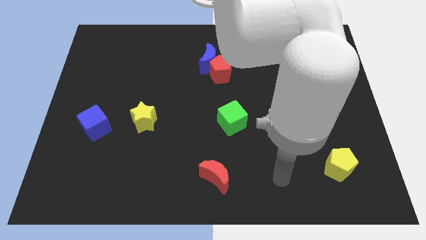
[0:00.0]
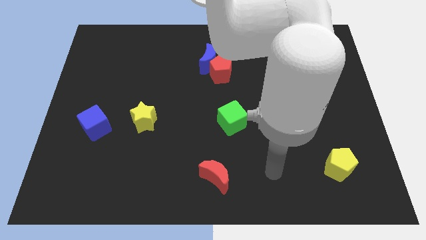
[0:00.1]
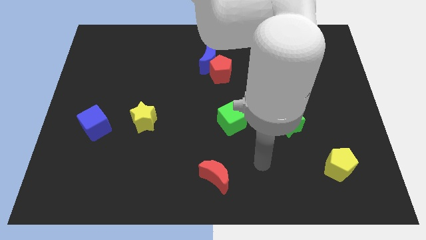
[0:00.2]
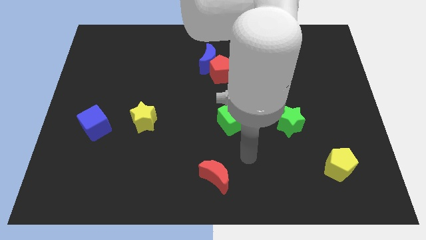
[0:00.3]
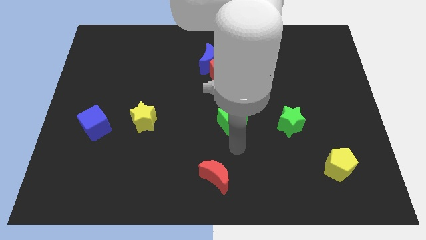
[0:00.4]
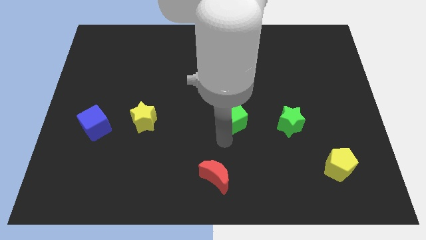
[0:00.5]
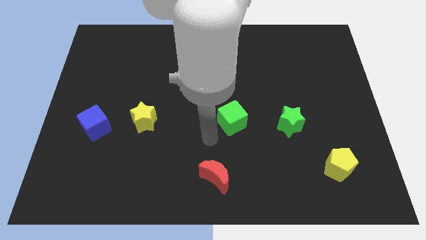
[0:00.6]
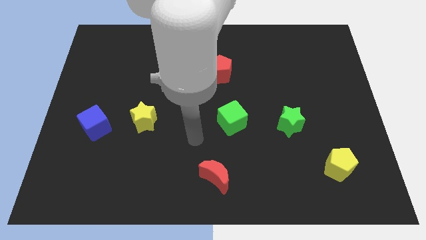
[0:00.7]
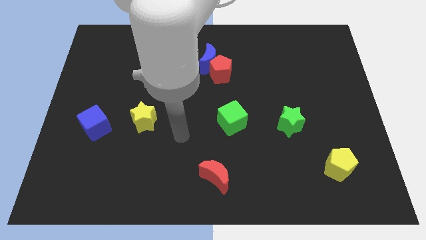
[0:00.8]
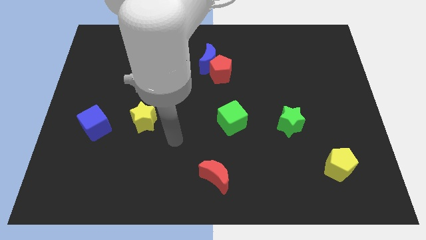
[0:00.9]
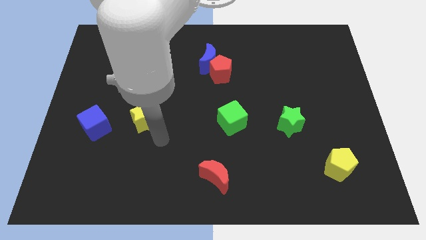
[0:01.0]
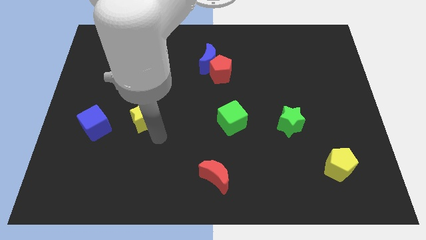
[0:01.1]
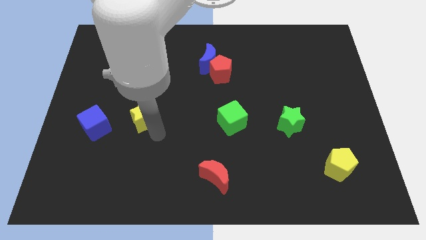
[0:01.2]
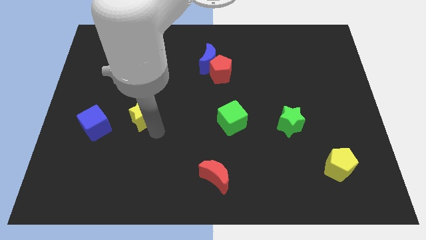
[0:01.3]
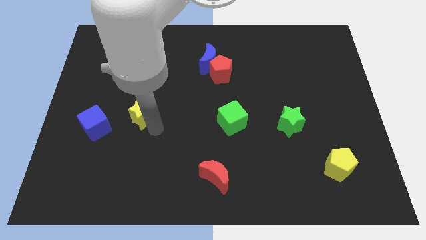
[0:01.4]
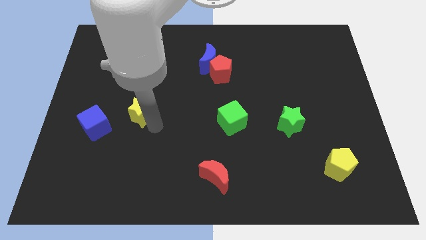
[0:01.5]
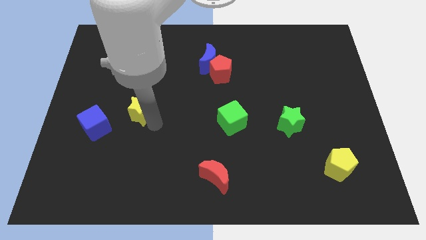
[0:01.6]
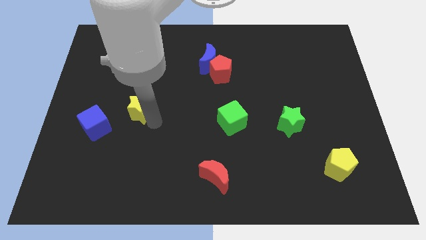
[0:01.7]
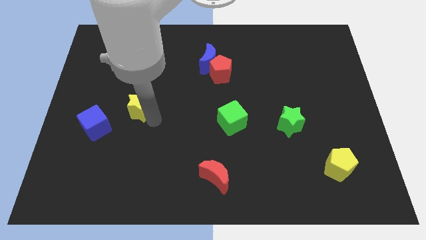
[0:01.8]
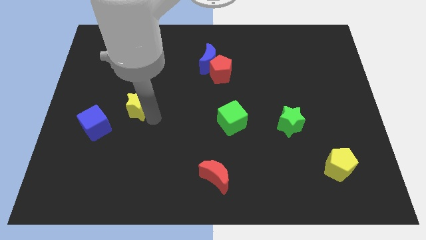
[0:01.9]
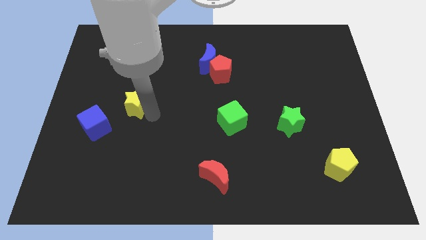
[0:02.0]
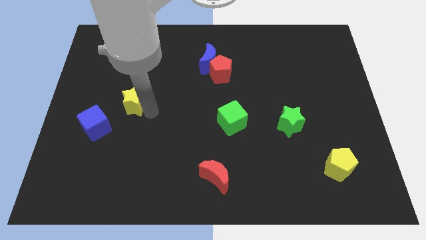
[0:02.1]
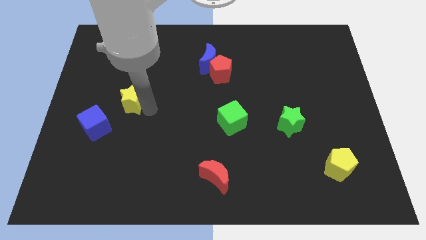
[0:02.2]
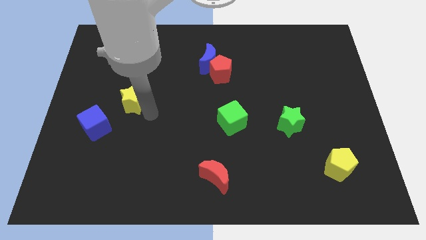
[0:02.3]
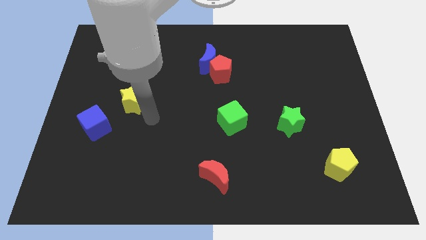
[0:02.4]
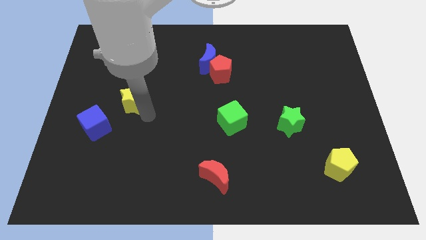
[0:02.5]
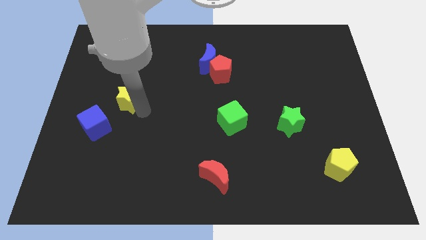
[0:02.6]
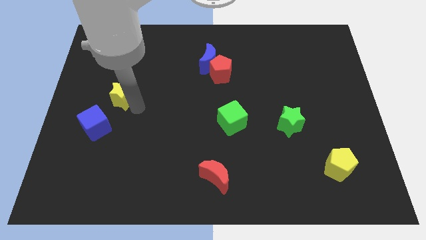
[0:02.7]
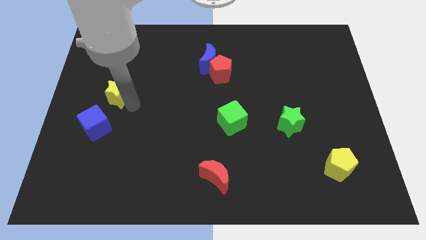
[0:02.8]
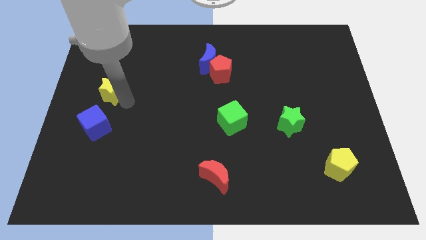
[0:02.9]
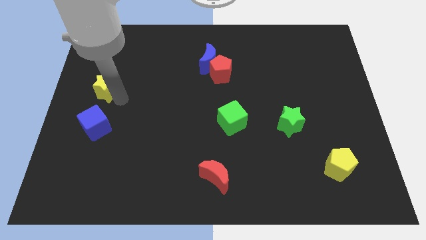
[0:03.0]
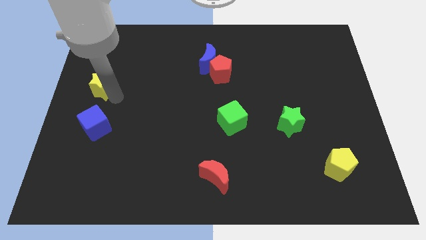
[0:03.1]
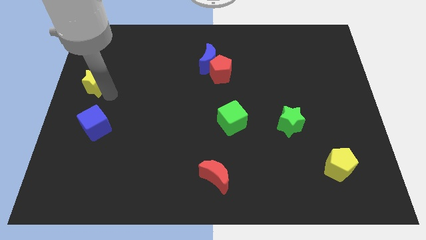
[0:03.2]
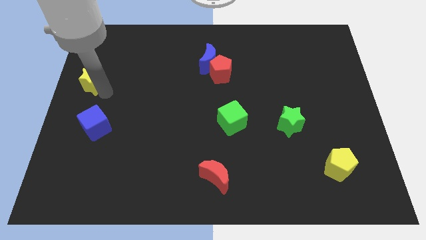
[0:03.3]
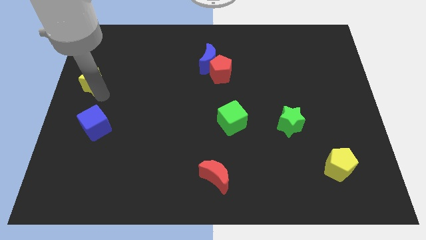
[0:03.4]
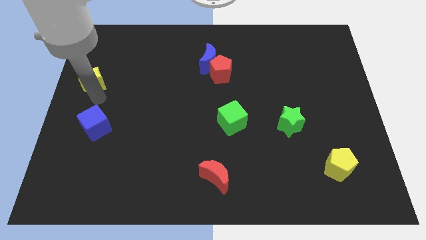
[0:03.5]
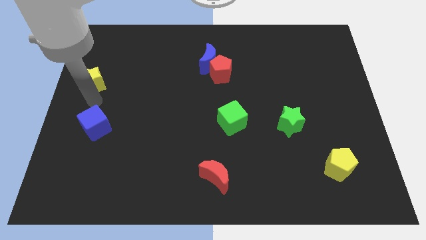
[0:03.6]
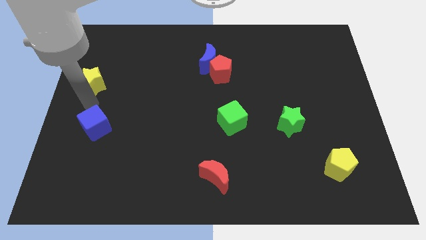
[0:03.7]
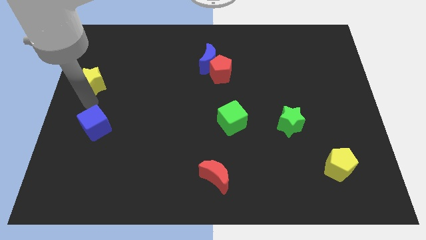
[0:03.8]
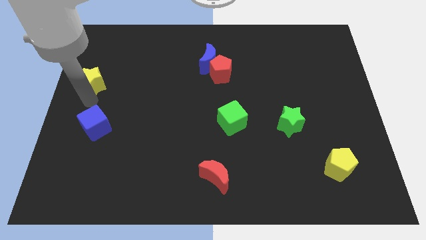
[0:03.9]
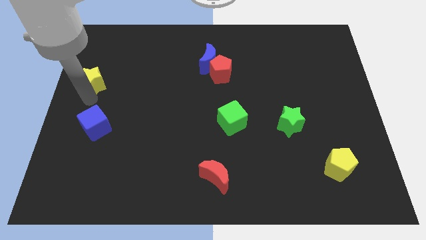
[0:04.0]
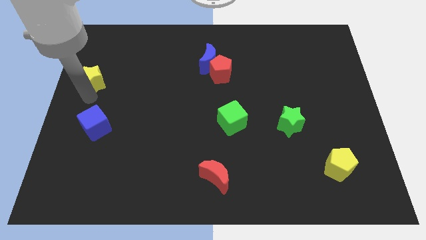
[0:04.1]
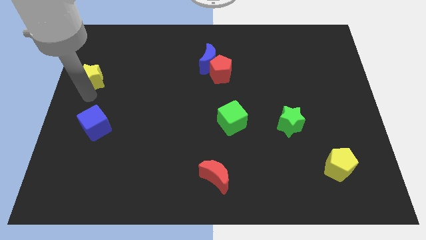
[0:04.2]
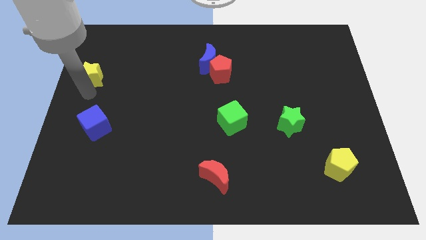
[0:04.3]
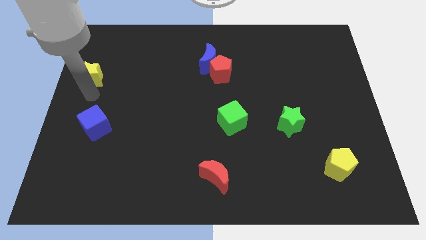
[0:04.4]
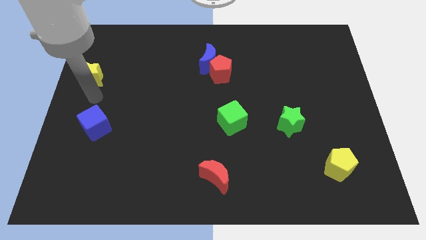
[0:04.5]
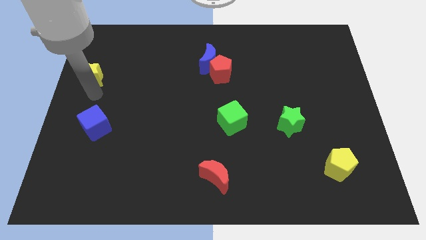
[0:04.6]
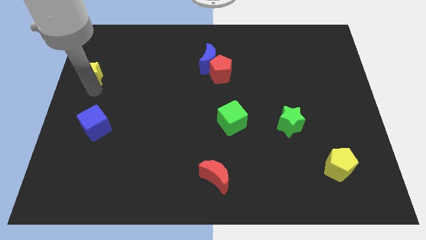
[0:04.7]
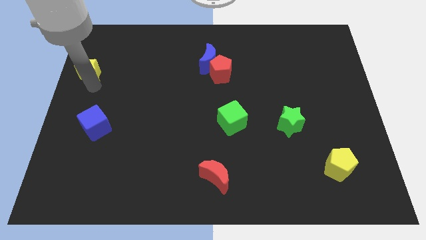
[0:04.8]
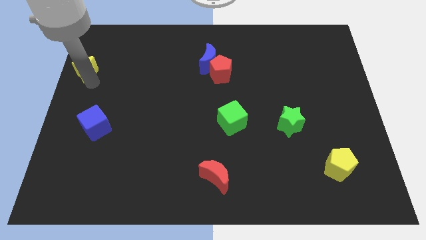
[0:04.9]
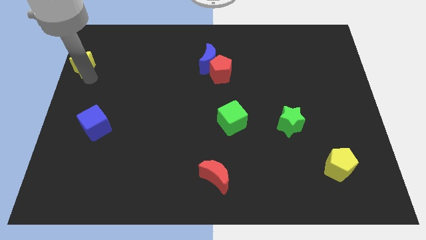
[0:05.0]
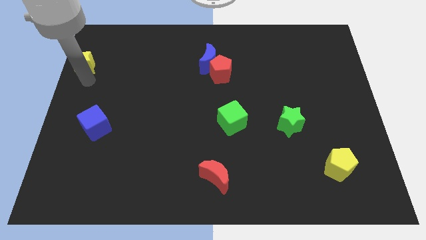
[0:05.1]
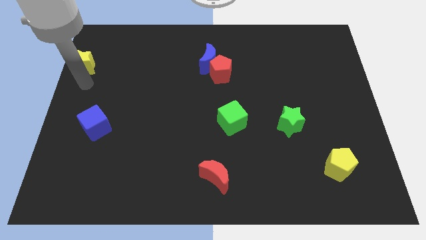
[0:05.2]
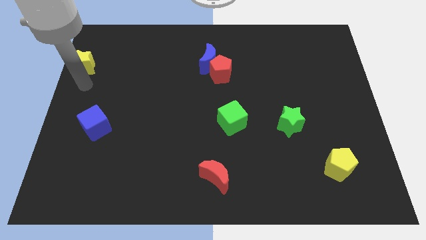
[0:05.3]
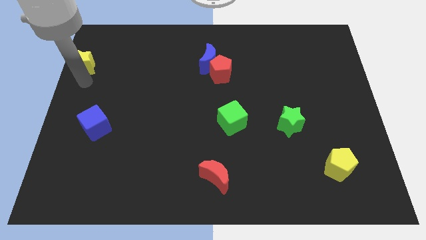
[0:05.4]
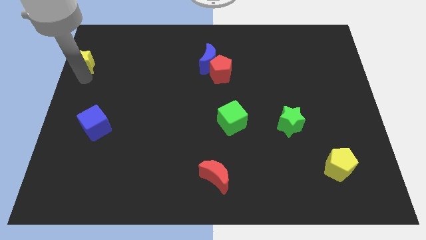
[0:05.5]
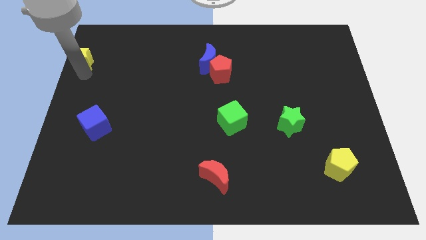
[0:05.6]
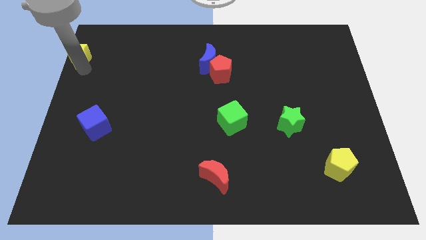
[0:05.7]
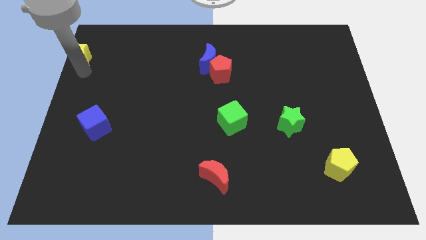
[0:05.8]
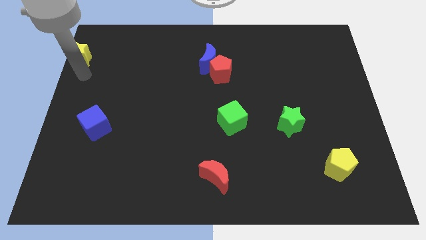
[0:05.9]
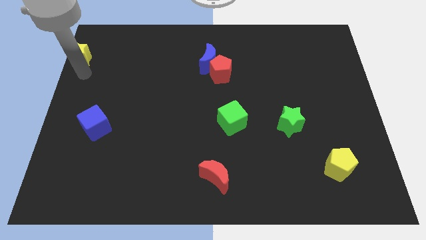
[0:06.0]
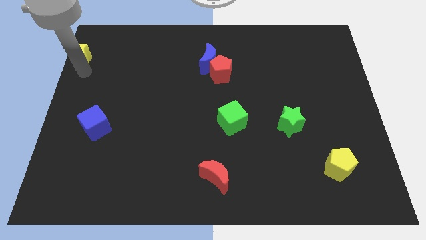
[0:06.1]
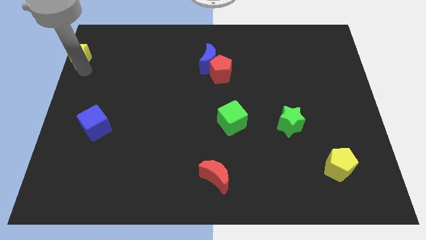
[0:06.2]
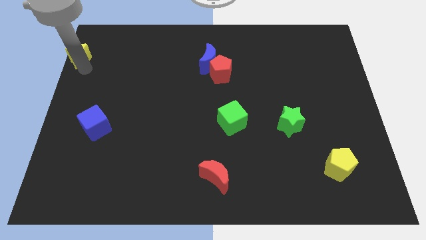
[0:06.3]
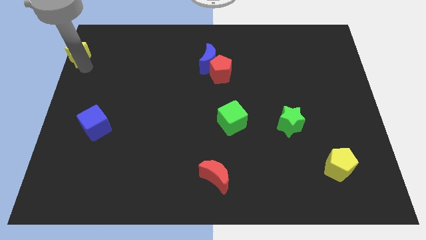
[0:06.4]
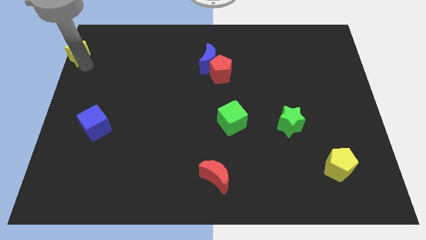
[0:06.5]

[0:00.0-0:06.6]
move the yellow star to the upper left corner

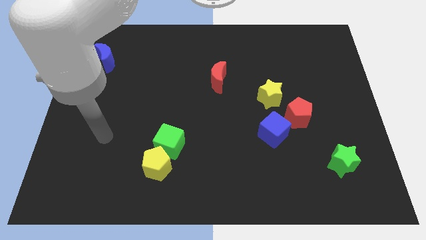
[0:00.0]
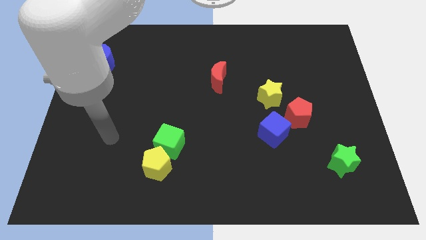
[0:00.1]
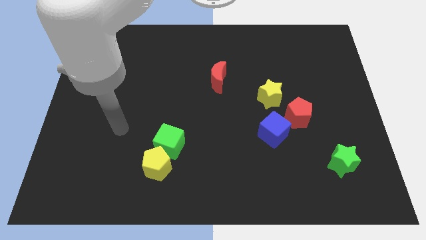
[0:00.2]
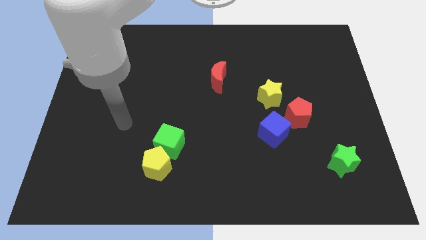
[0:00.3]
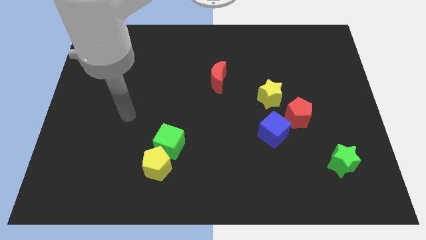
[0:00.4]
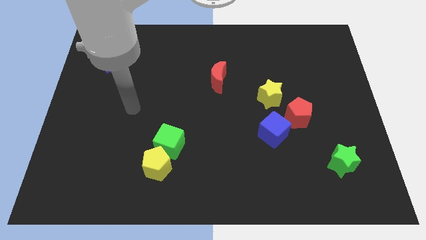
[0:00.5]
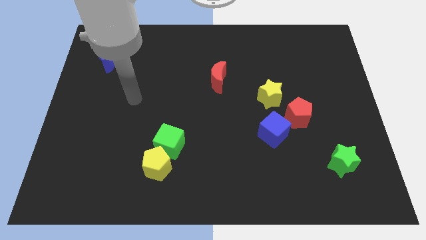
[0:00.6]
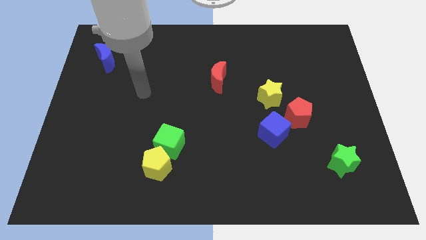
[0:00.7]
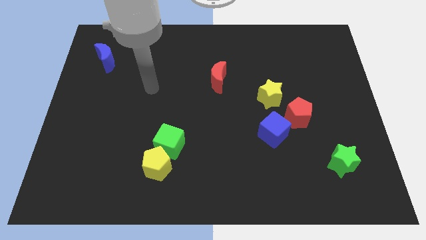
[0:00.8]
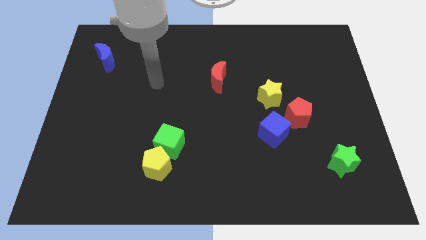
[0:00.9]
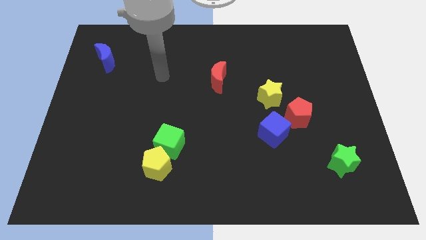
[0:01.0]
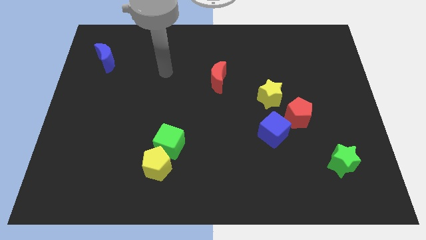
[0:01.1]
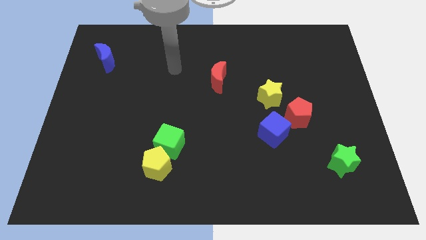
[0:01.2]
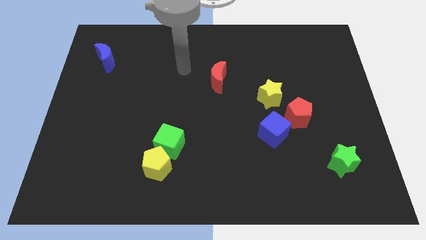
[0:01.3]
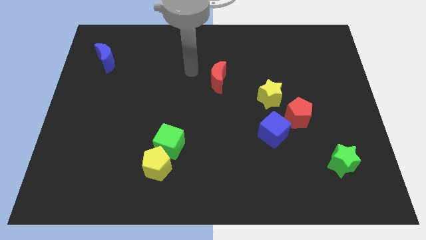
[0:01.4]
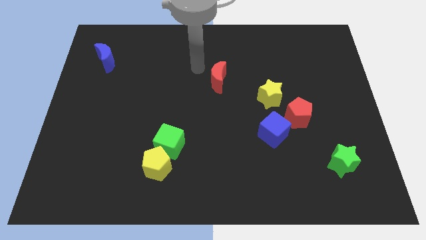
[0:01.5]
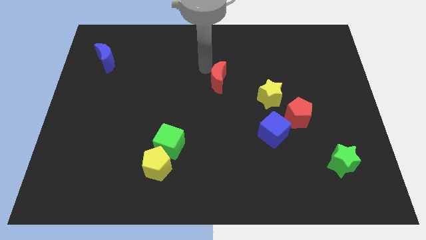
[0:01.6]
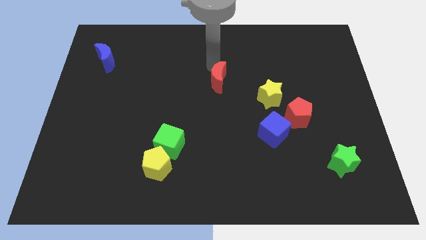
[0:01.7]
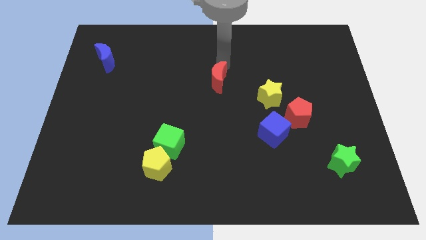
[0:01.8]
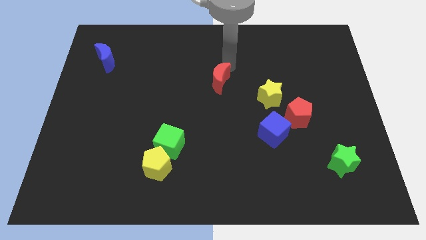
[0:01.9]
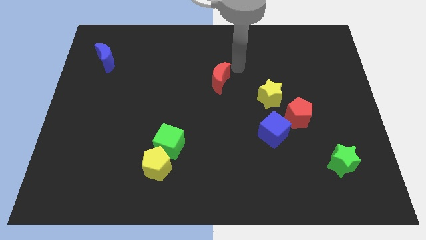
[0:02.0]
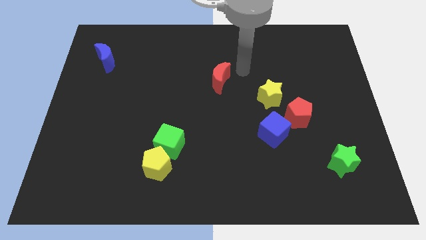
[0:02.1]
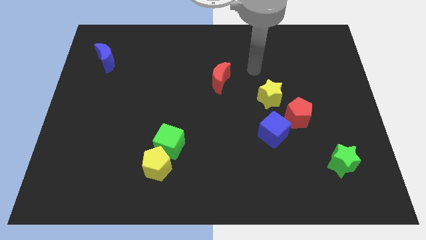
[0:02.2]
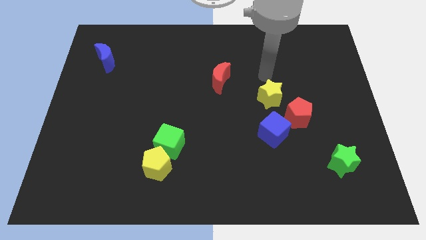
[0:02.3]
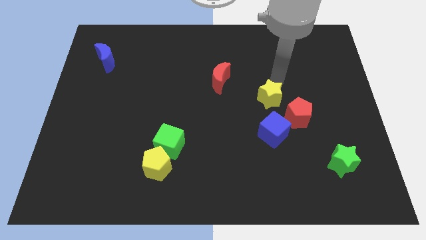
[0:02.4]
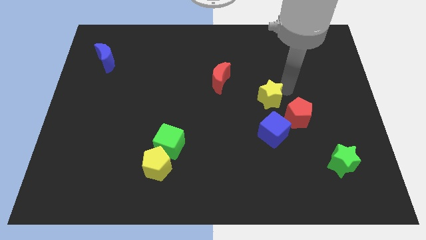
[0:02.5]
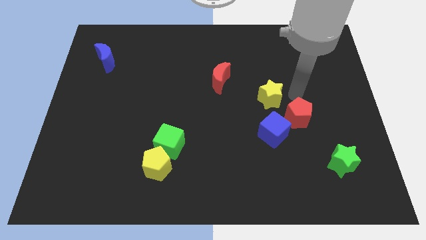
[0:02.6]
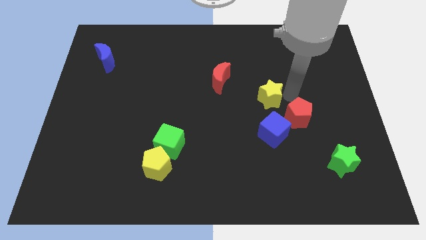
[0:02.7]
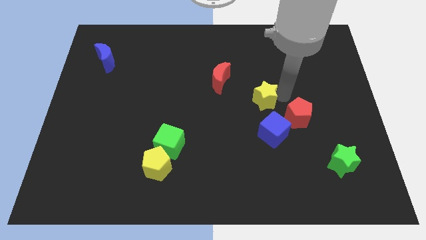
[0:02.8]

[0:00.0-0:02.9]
slide the yellow star to the middle
